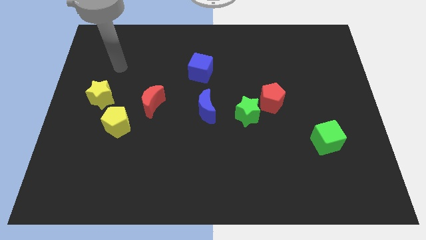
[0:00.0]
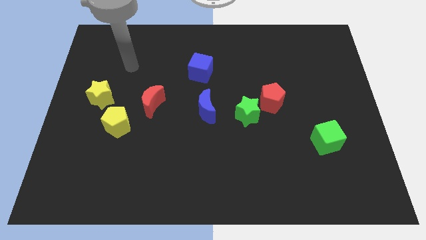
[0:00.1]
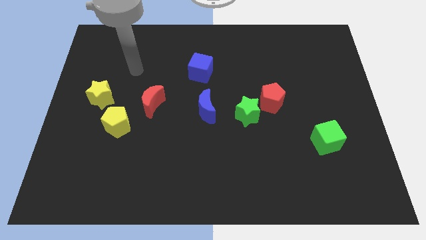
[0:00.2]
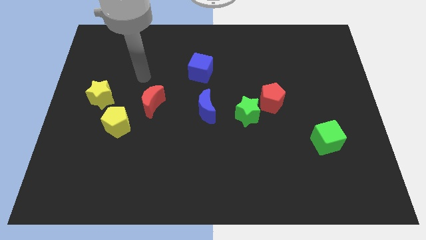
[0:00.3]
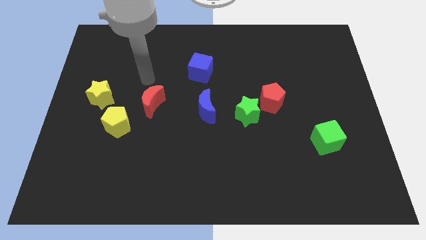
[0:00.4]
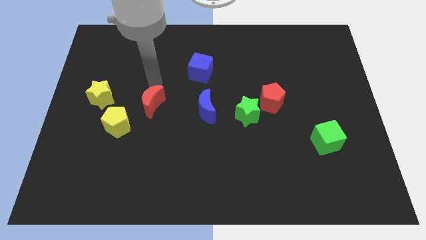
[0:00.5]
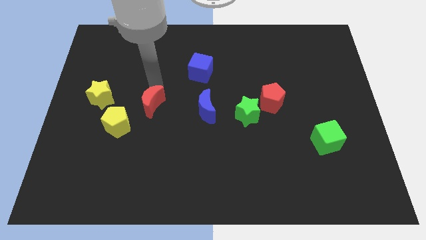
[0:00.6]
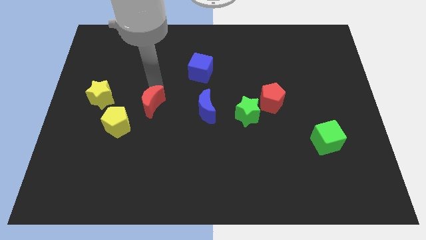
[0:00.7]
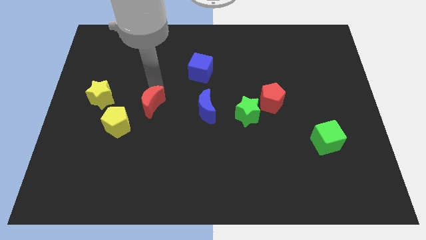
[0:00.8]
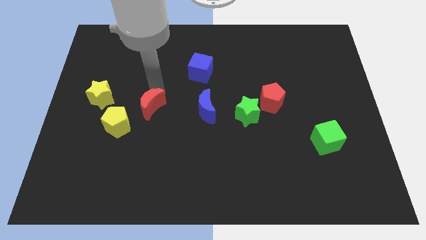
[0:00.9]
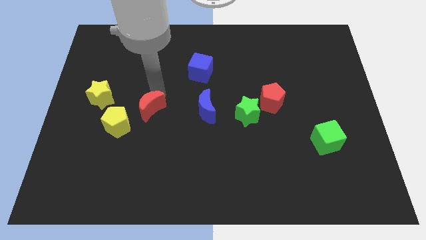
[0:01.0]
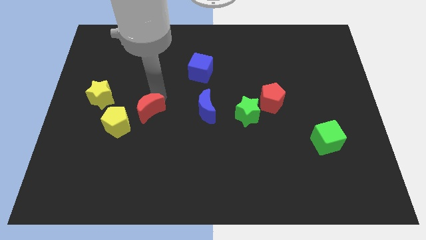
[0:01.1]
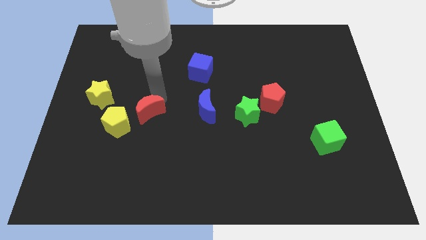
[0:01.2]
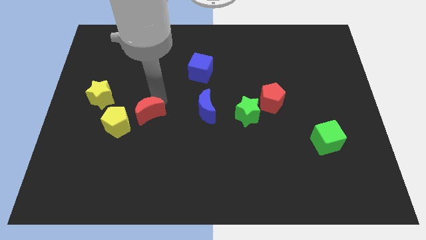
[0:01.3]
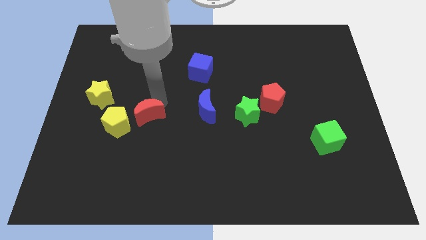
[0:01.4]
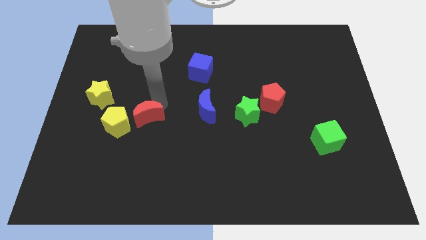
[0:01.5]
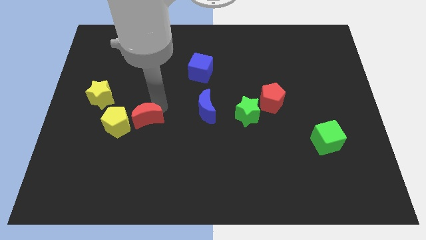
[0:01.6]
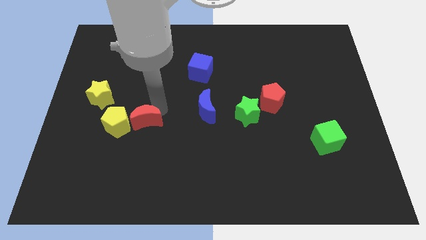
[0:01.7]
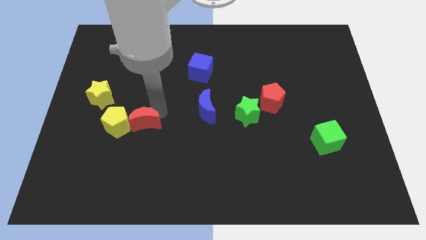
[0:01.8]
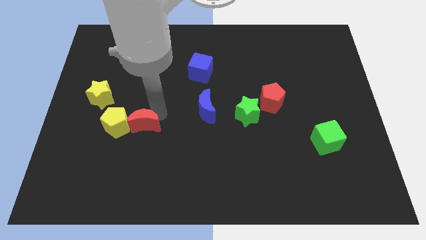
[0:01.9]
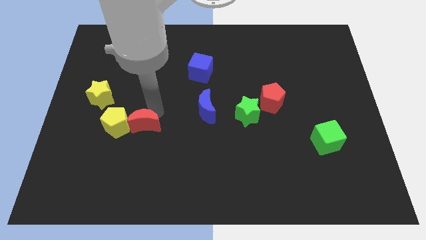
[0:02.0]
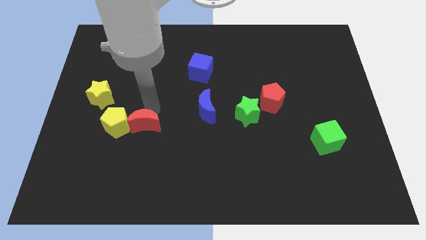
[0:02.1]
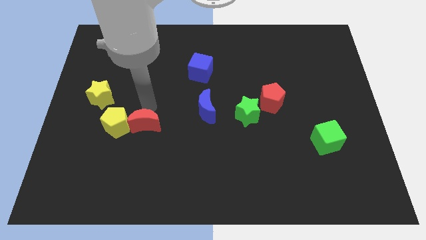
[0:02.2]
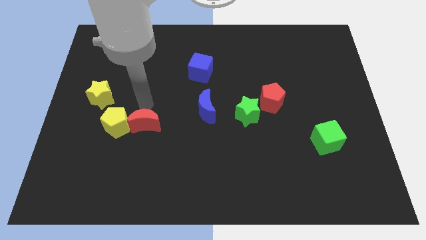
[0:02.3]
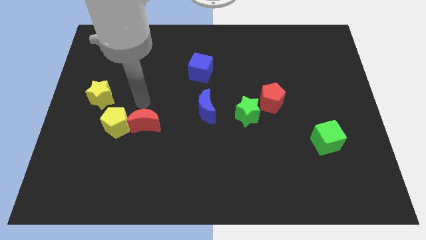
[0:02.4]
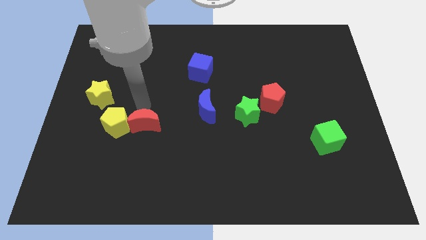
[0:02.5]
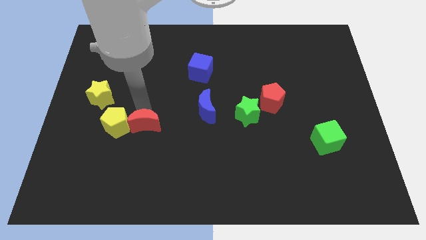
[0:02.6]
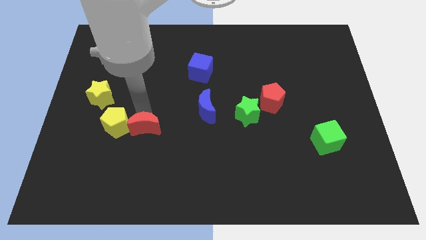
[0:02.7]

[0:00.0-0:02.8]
push the red moon a little down

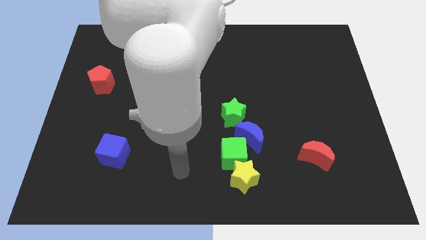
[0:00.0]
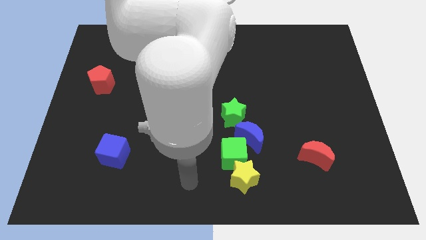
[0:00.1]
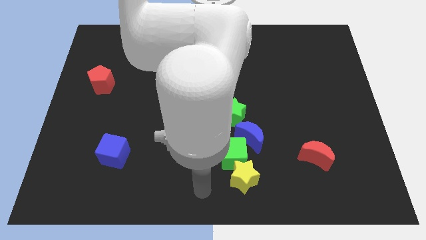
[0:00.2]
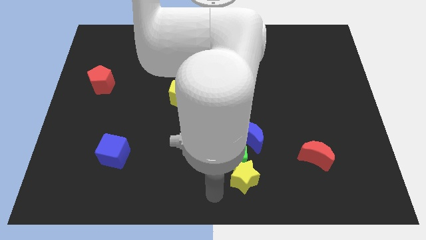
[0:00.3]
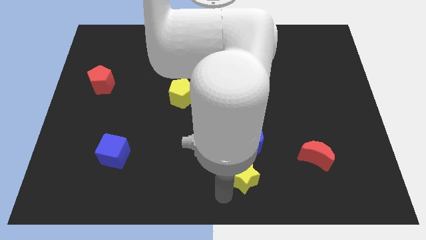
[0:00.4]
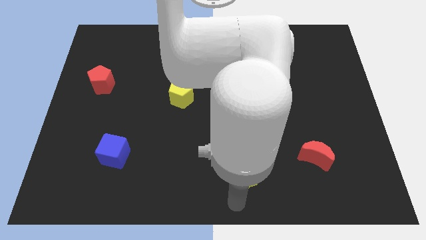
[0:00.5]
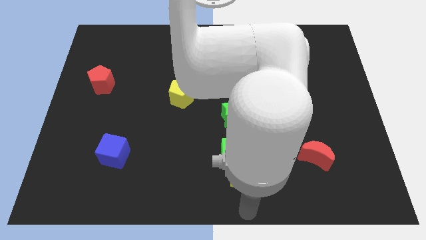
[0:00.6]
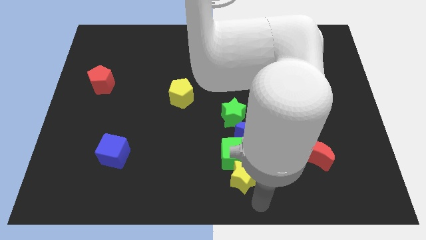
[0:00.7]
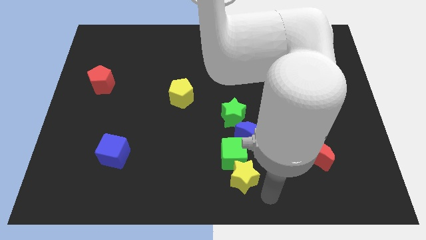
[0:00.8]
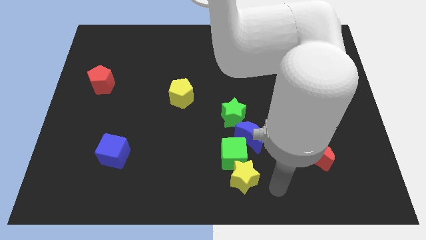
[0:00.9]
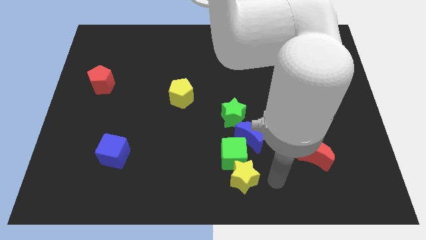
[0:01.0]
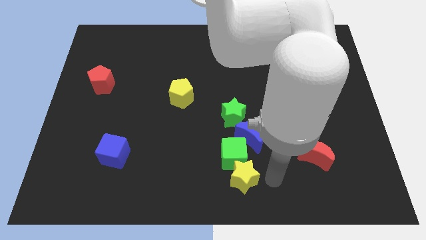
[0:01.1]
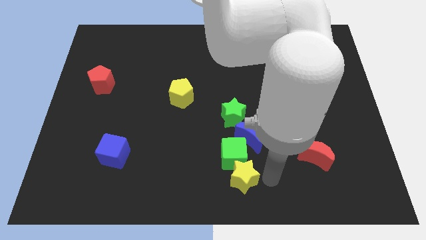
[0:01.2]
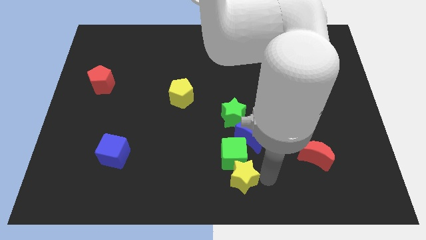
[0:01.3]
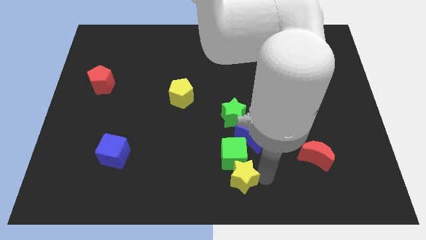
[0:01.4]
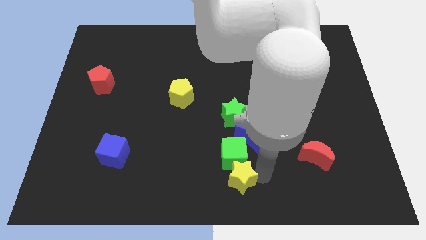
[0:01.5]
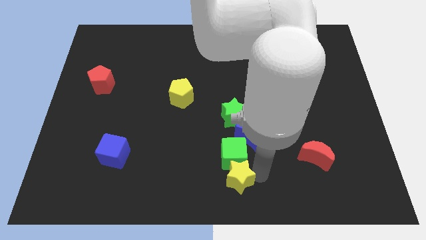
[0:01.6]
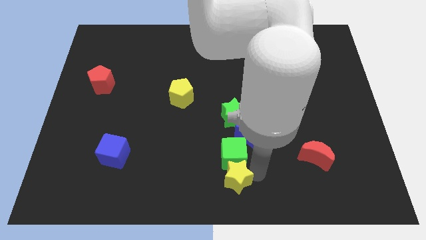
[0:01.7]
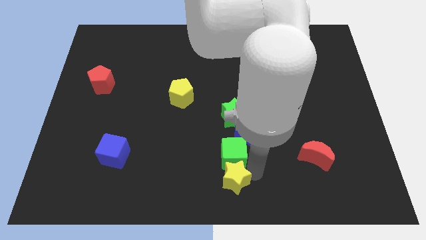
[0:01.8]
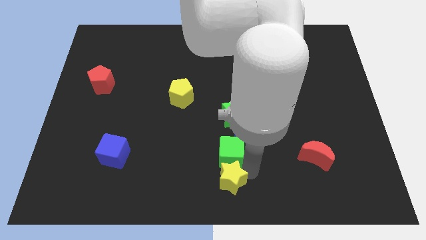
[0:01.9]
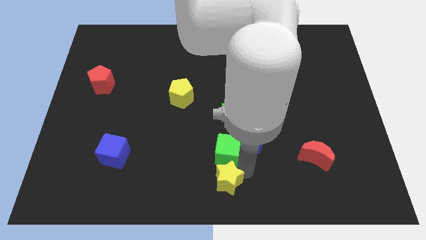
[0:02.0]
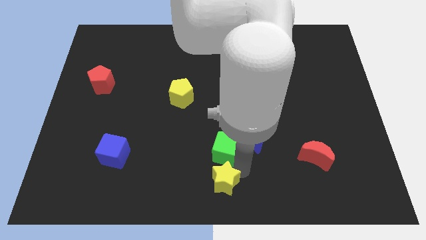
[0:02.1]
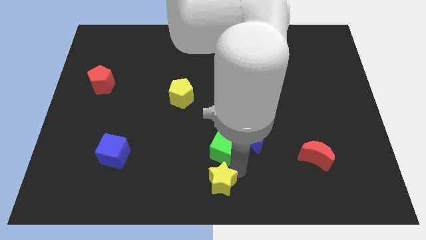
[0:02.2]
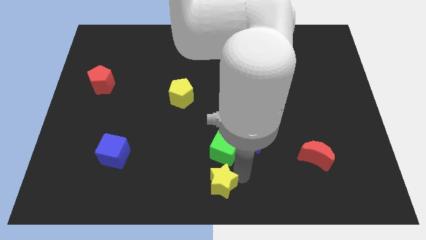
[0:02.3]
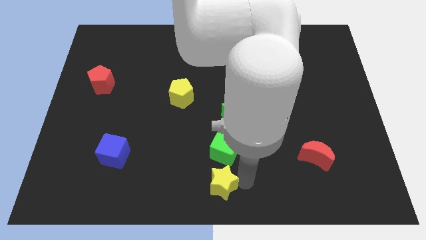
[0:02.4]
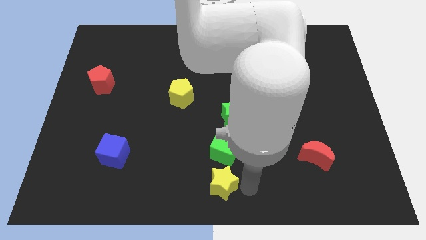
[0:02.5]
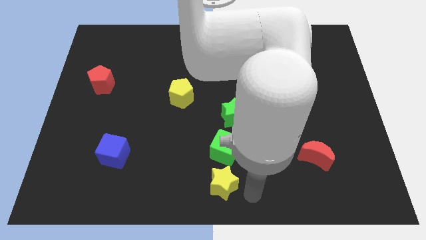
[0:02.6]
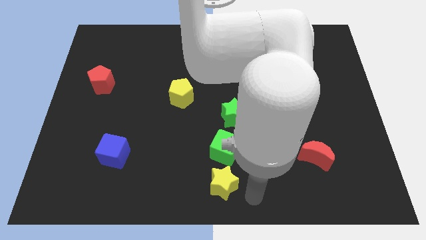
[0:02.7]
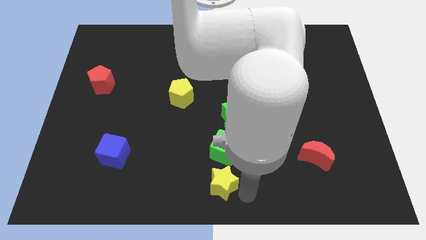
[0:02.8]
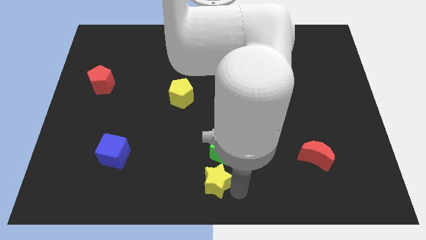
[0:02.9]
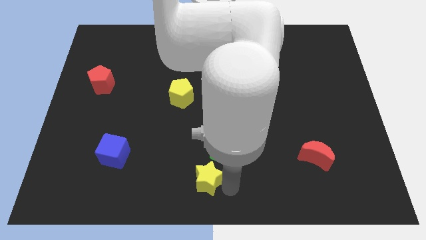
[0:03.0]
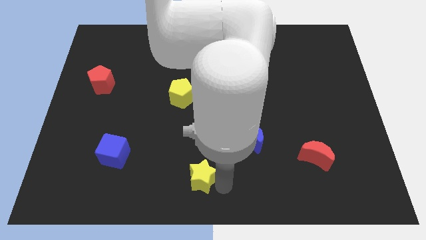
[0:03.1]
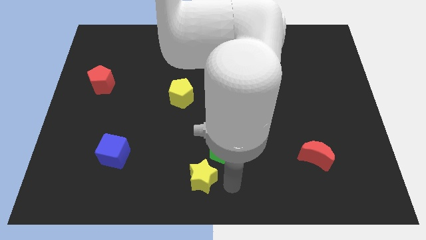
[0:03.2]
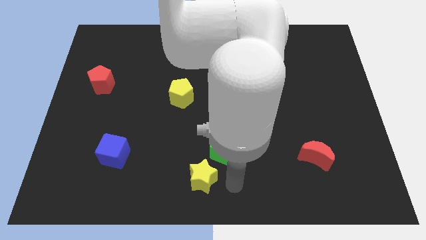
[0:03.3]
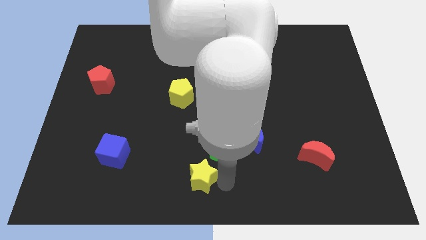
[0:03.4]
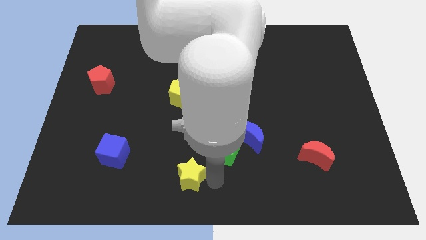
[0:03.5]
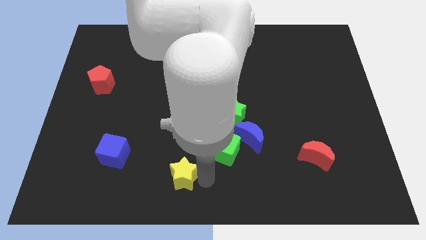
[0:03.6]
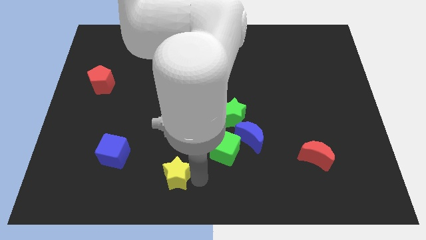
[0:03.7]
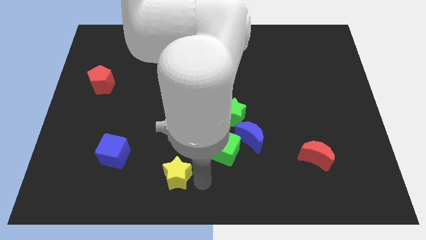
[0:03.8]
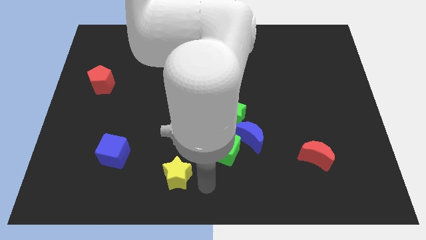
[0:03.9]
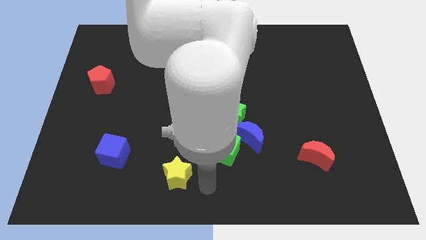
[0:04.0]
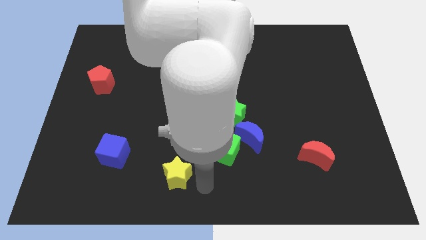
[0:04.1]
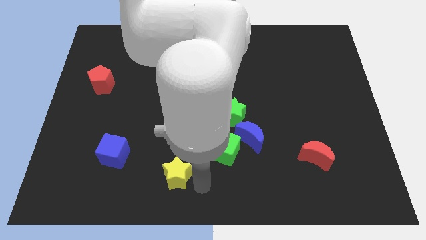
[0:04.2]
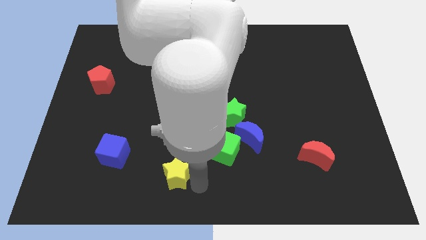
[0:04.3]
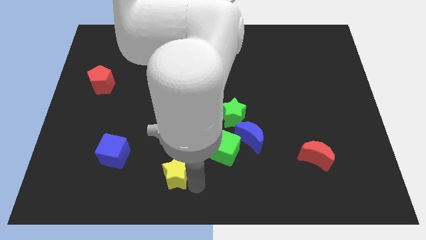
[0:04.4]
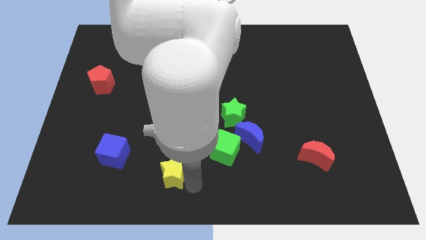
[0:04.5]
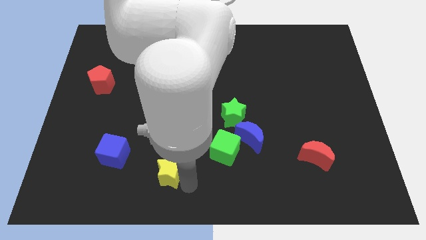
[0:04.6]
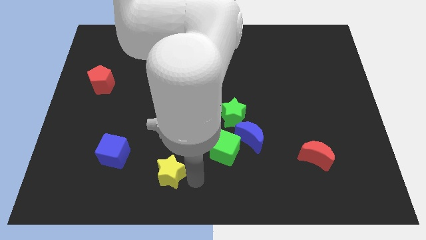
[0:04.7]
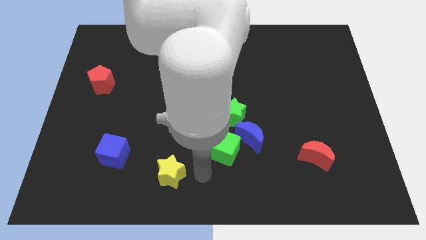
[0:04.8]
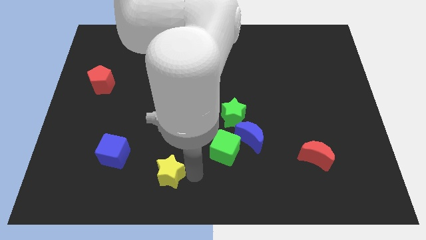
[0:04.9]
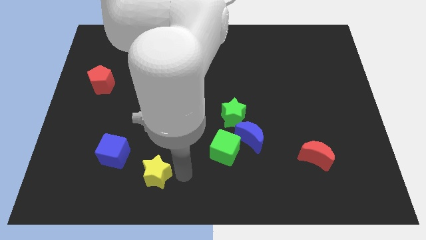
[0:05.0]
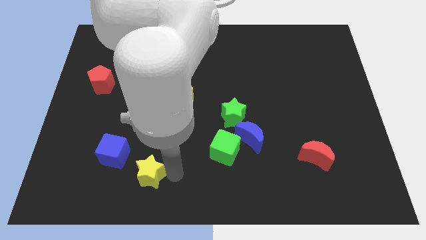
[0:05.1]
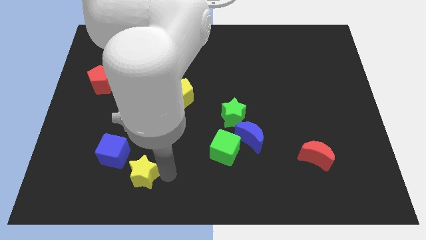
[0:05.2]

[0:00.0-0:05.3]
push the yellow star to the left

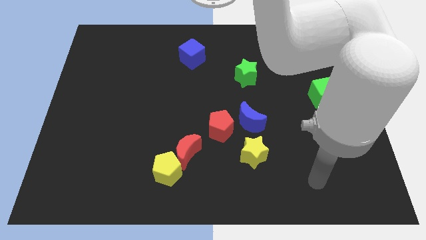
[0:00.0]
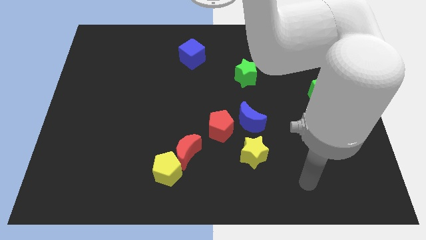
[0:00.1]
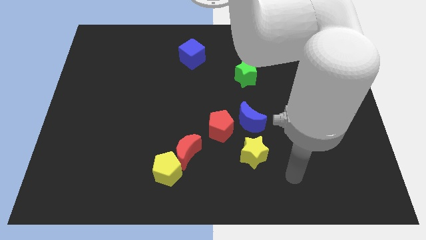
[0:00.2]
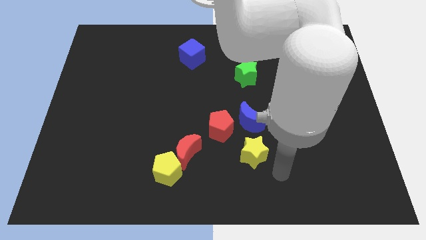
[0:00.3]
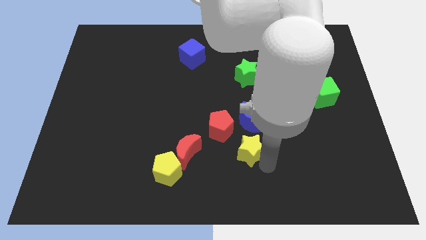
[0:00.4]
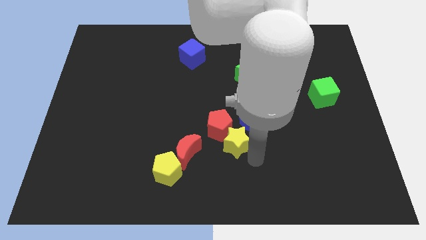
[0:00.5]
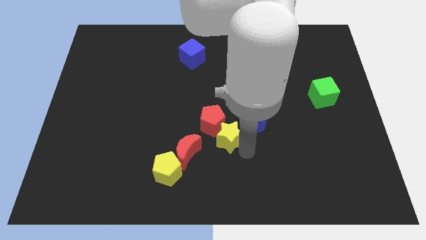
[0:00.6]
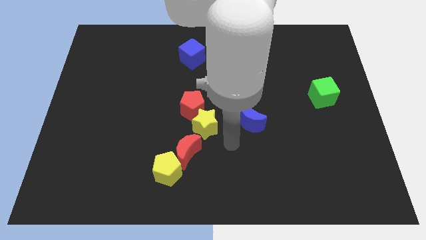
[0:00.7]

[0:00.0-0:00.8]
slightly move the red pentagon upwards and then left
